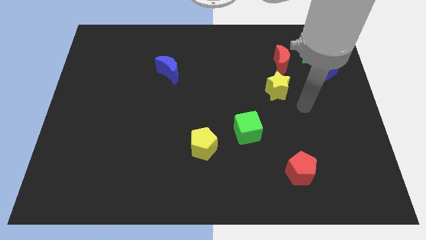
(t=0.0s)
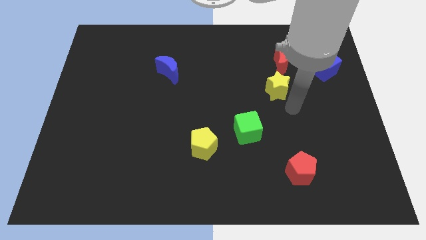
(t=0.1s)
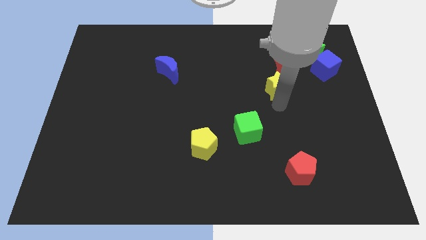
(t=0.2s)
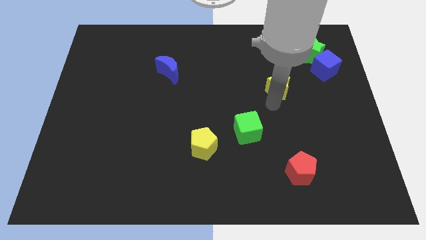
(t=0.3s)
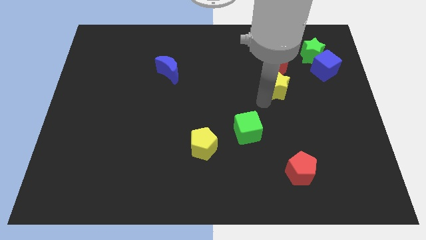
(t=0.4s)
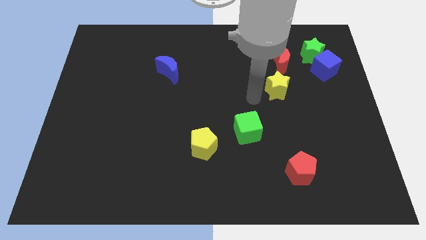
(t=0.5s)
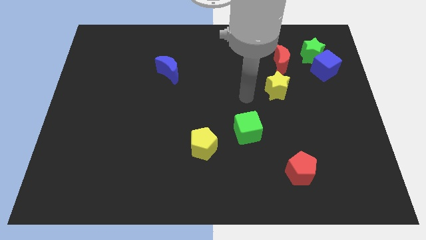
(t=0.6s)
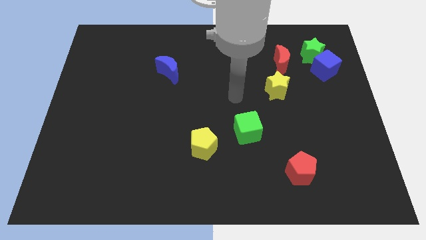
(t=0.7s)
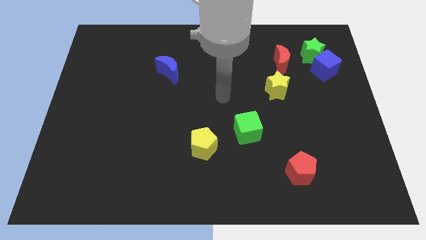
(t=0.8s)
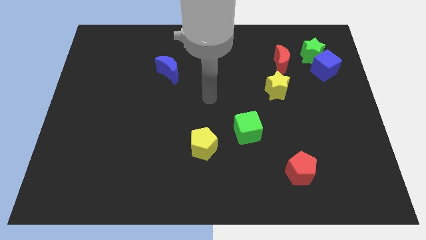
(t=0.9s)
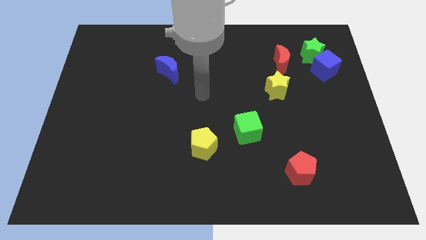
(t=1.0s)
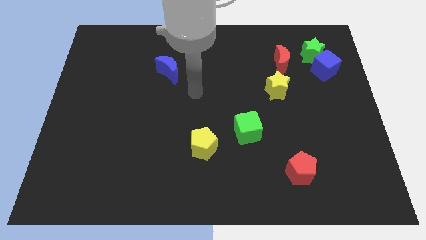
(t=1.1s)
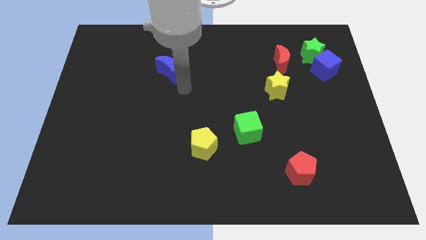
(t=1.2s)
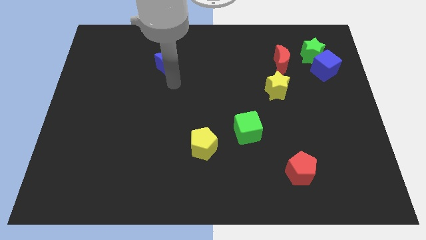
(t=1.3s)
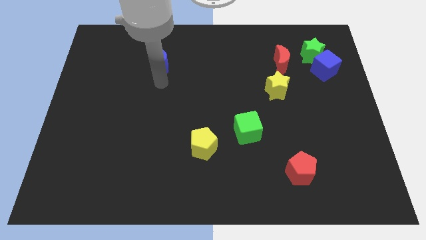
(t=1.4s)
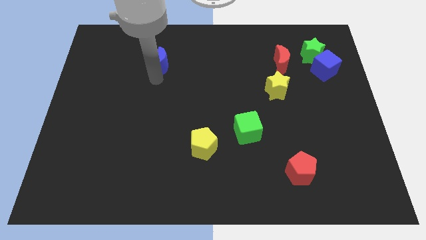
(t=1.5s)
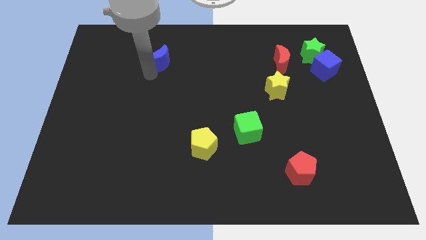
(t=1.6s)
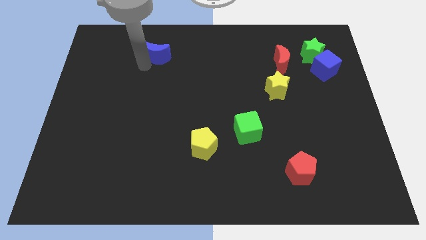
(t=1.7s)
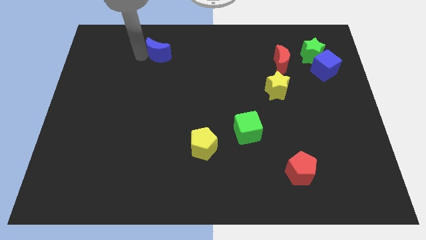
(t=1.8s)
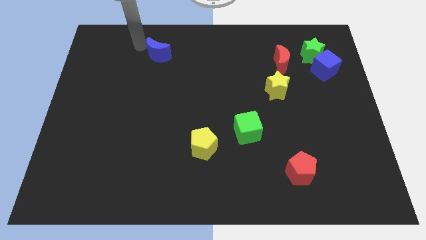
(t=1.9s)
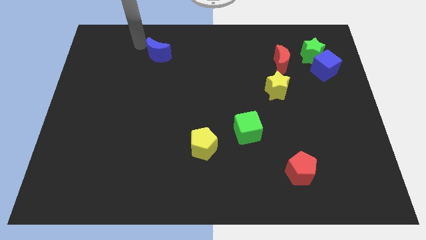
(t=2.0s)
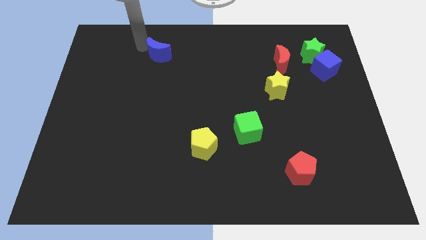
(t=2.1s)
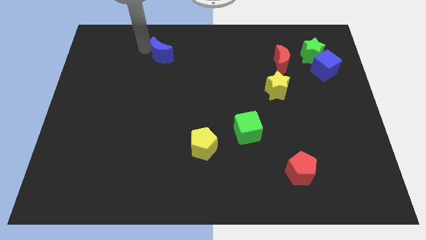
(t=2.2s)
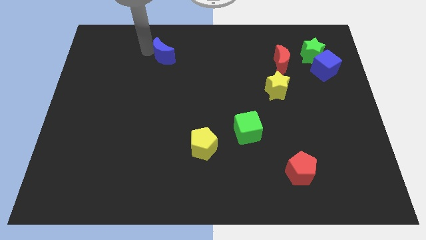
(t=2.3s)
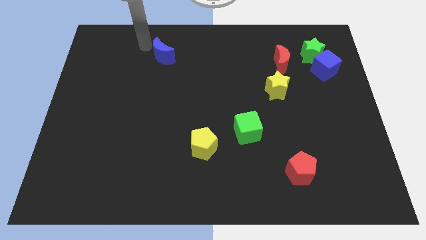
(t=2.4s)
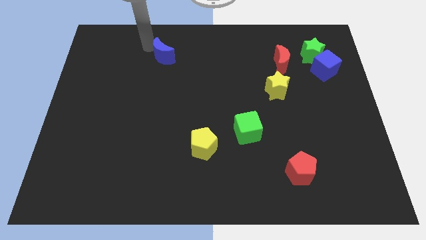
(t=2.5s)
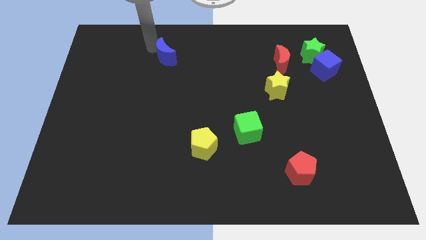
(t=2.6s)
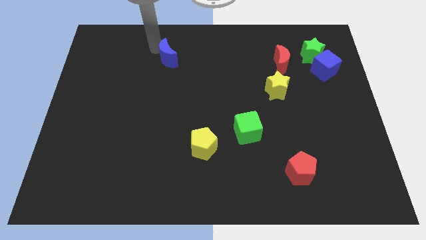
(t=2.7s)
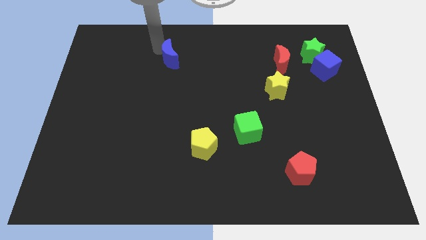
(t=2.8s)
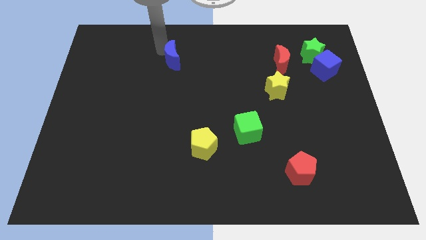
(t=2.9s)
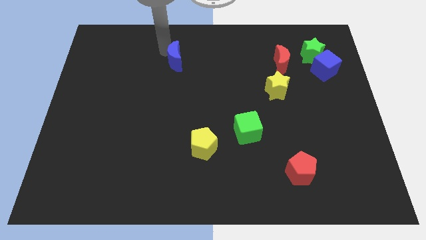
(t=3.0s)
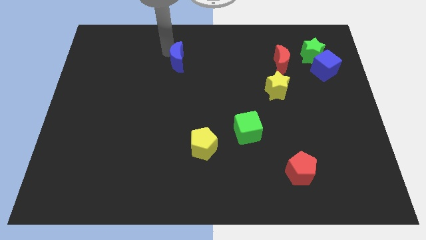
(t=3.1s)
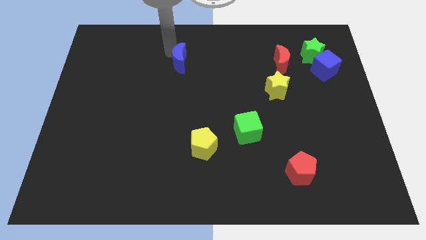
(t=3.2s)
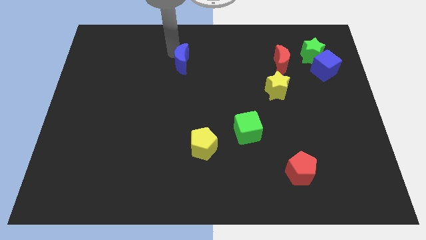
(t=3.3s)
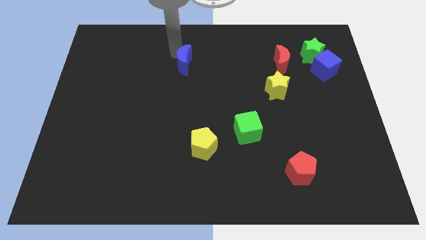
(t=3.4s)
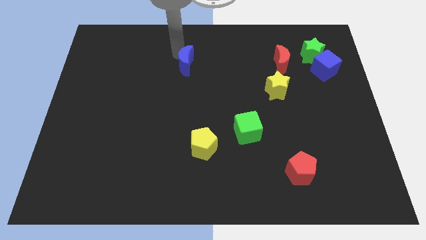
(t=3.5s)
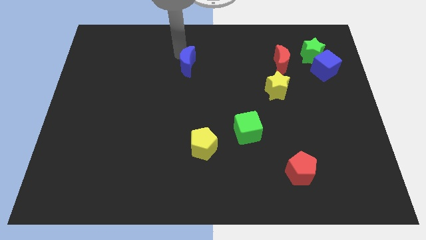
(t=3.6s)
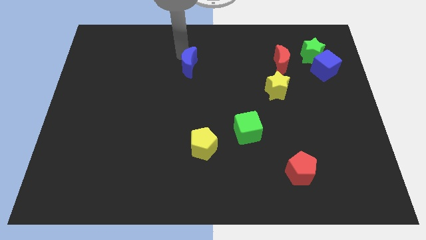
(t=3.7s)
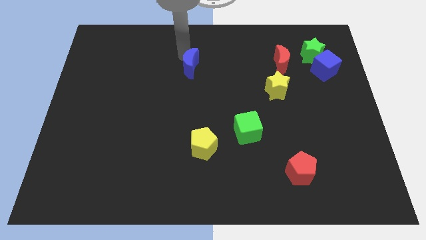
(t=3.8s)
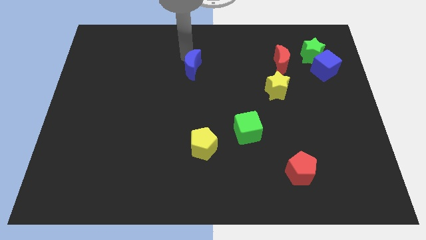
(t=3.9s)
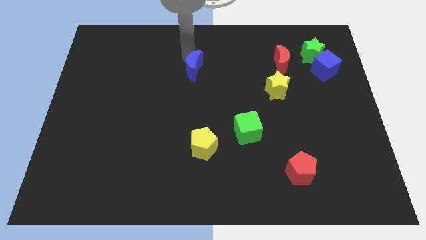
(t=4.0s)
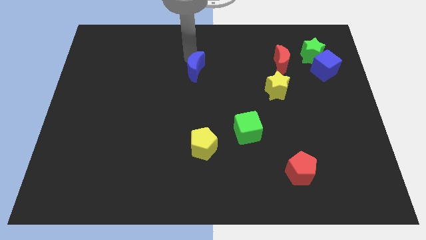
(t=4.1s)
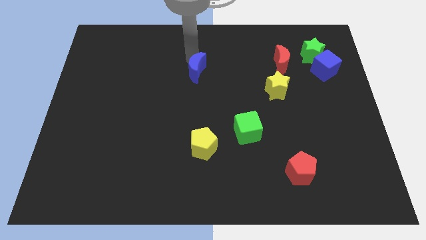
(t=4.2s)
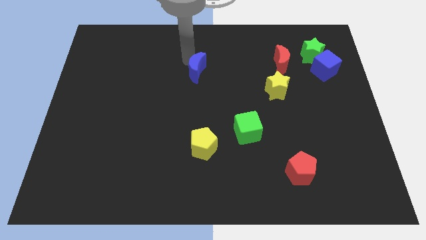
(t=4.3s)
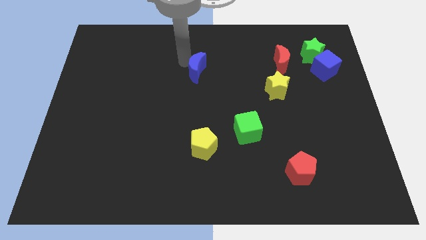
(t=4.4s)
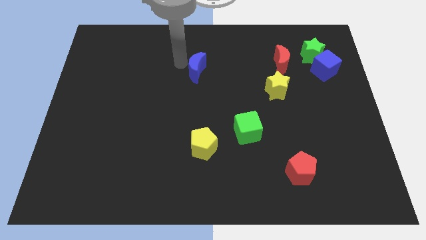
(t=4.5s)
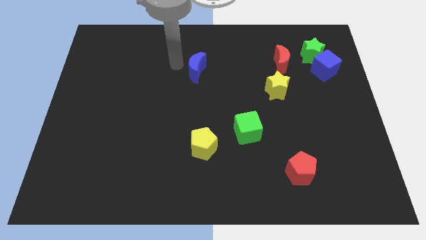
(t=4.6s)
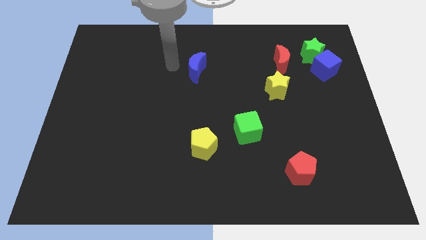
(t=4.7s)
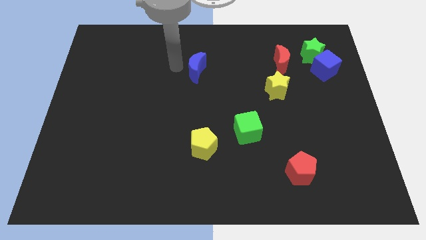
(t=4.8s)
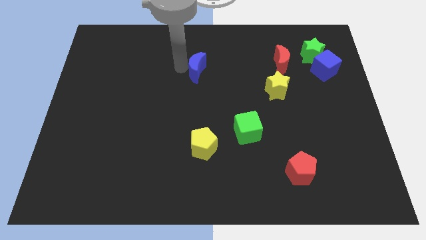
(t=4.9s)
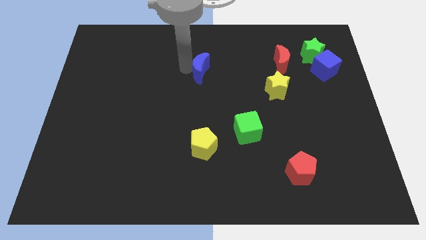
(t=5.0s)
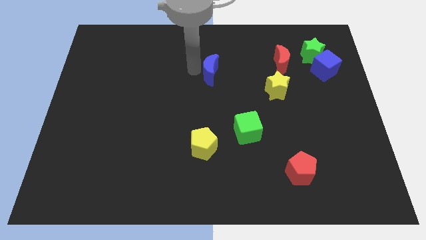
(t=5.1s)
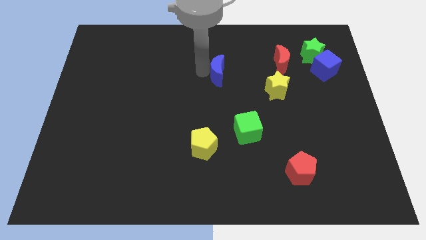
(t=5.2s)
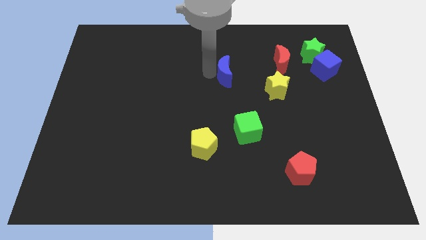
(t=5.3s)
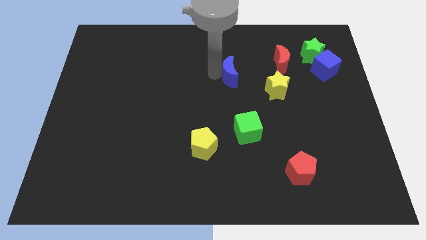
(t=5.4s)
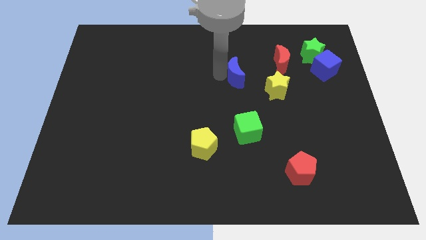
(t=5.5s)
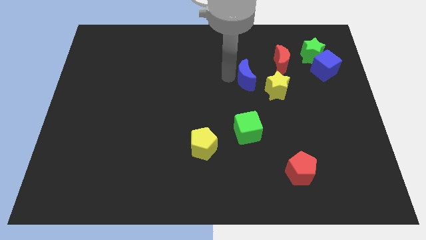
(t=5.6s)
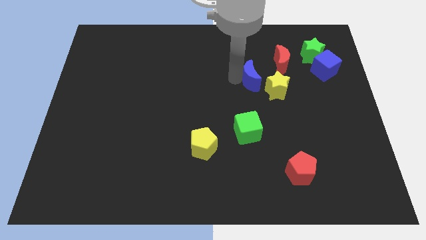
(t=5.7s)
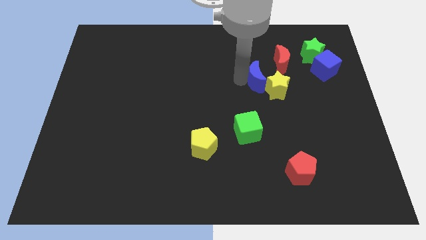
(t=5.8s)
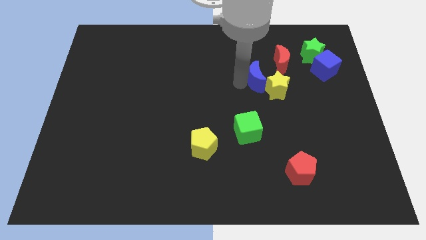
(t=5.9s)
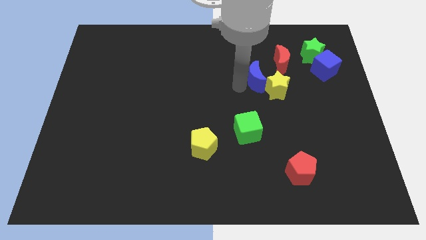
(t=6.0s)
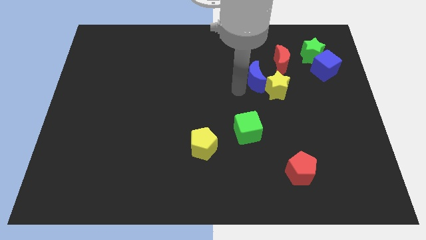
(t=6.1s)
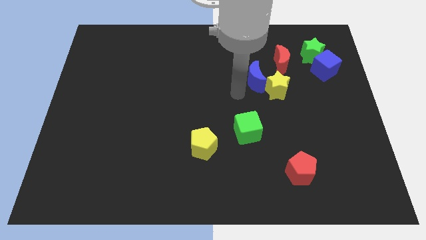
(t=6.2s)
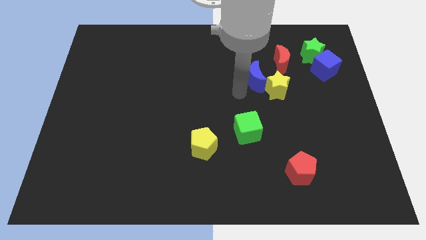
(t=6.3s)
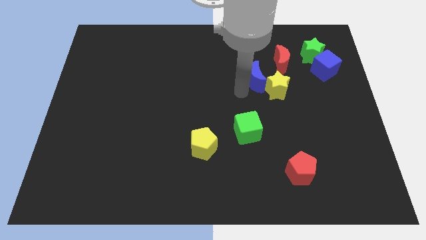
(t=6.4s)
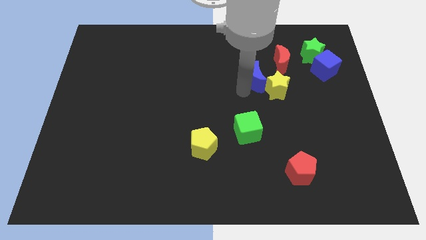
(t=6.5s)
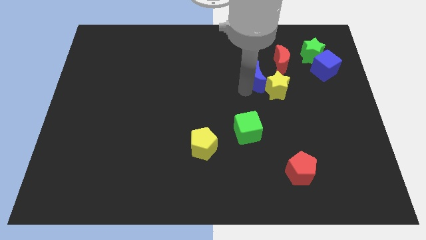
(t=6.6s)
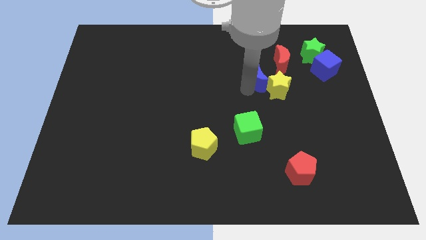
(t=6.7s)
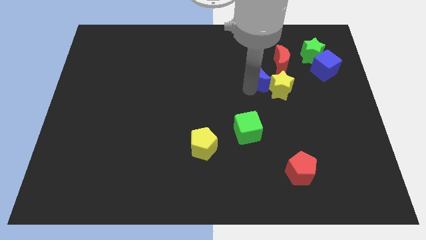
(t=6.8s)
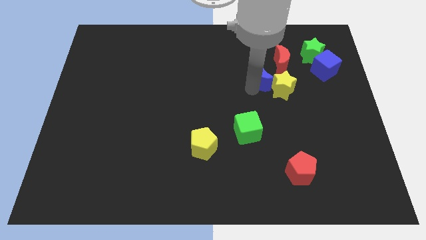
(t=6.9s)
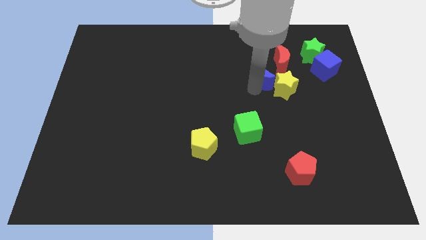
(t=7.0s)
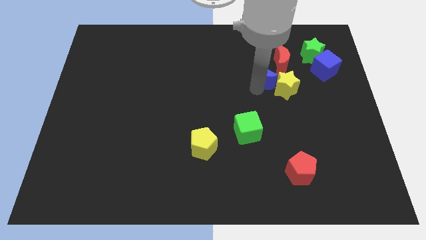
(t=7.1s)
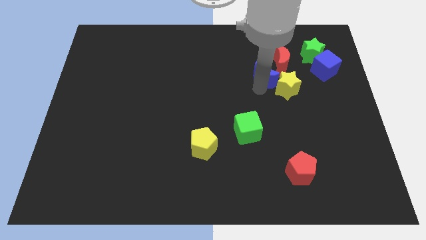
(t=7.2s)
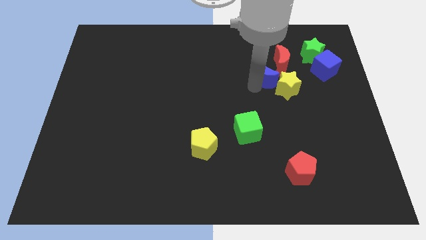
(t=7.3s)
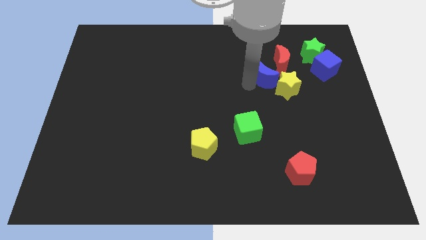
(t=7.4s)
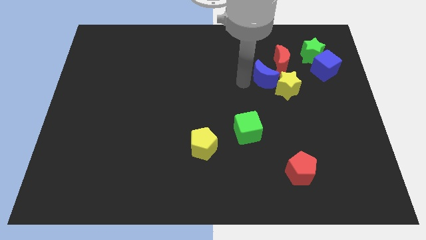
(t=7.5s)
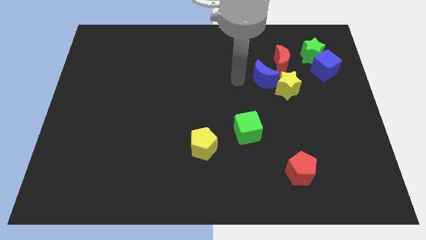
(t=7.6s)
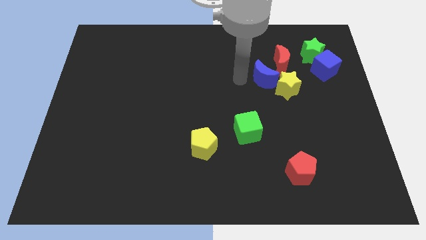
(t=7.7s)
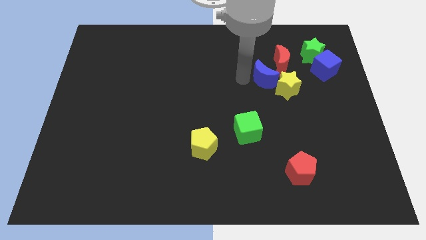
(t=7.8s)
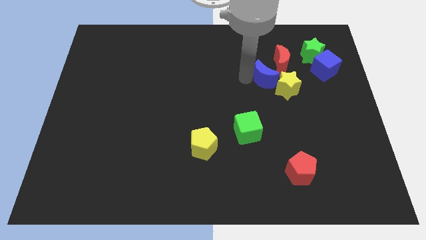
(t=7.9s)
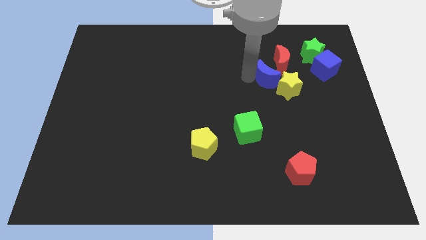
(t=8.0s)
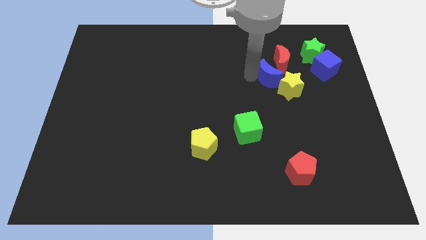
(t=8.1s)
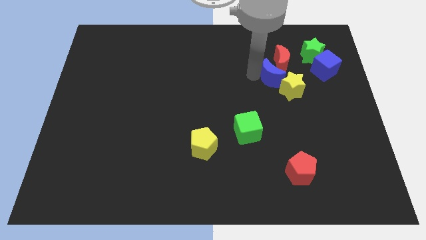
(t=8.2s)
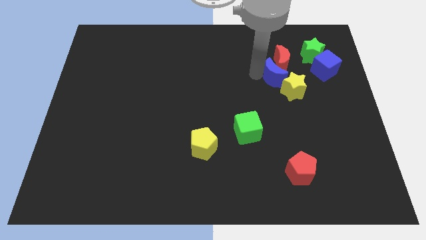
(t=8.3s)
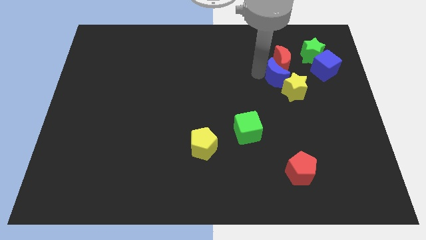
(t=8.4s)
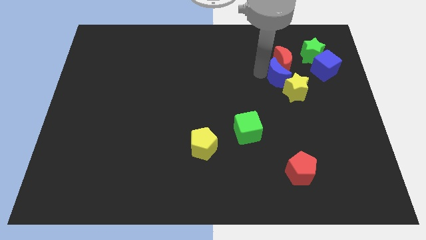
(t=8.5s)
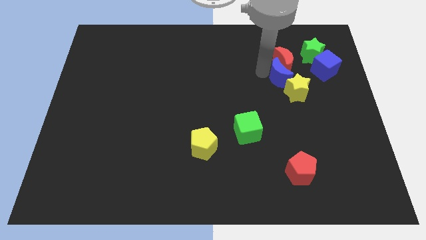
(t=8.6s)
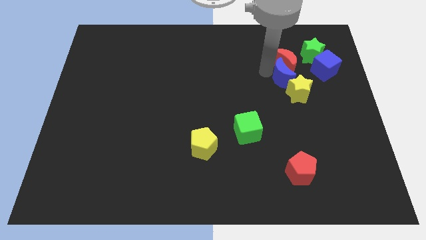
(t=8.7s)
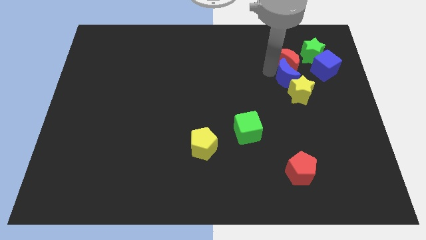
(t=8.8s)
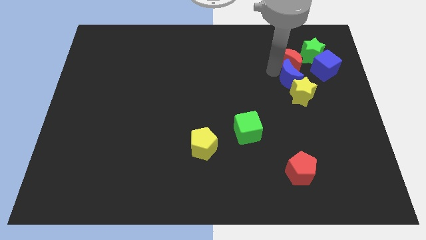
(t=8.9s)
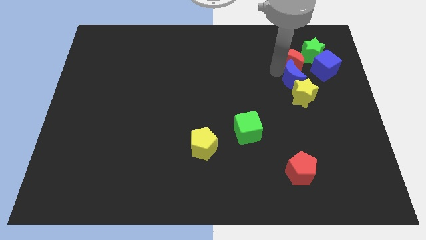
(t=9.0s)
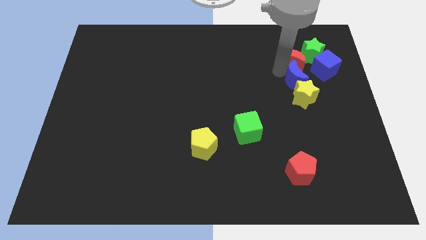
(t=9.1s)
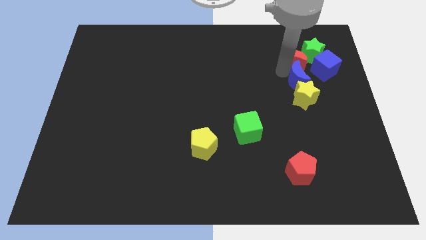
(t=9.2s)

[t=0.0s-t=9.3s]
move the blue moon to the bottom side of the green star
